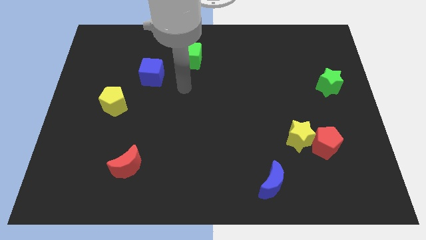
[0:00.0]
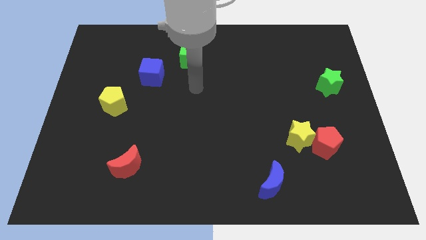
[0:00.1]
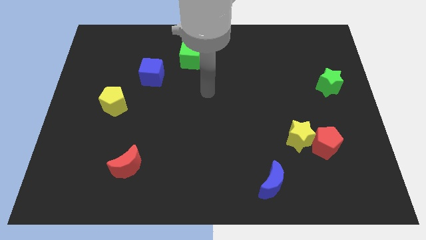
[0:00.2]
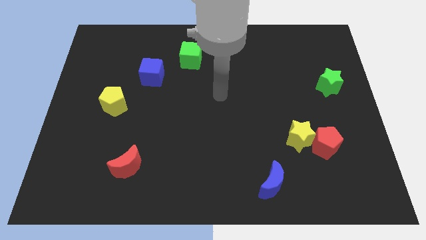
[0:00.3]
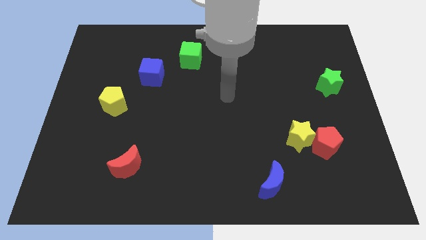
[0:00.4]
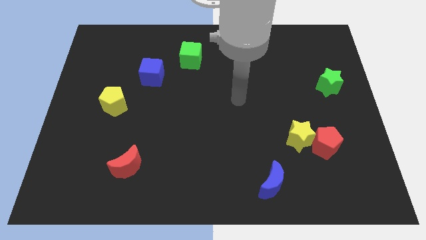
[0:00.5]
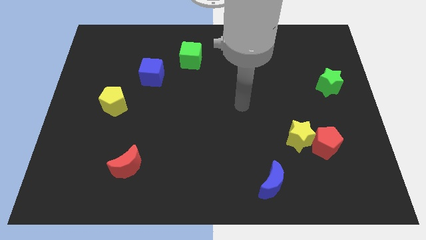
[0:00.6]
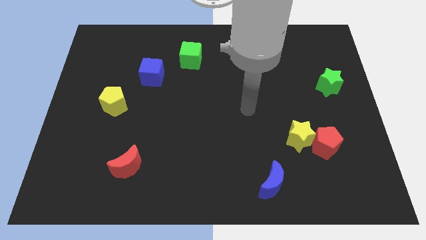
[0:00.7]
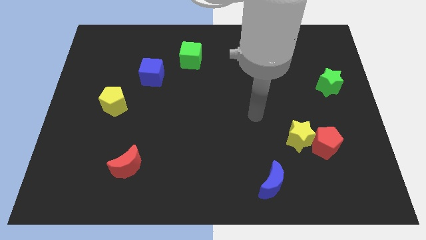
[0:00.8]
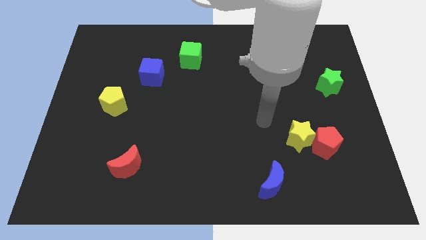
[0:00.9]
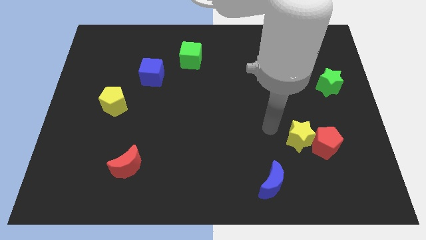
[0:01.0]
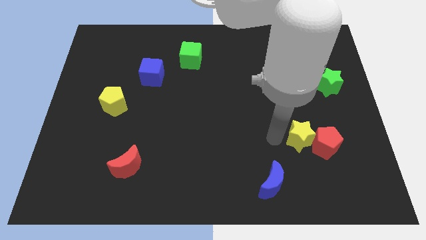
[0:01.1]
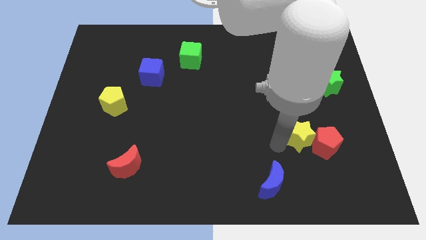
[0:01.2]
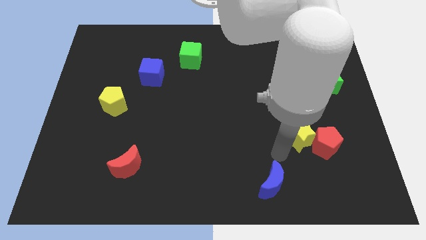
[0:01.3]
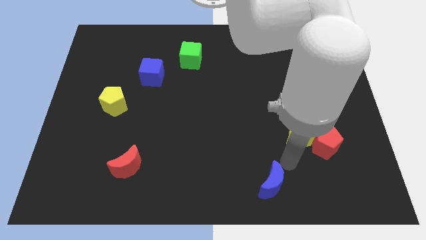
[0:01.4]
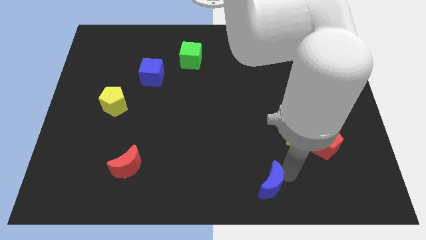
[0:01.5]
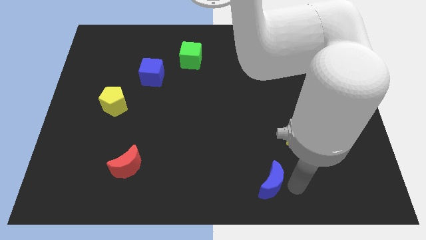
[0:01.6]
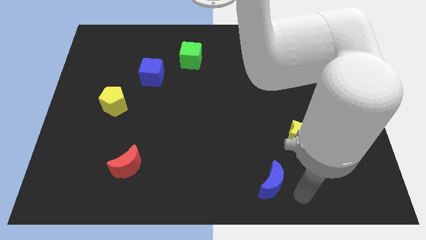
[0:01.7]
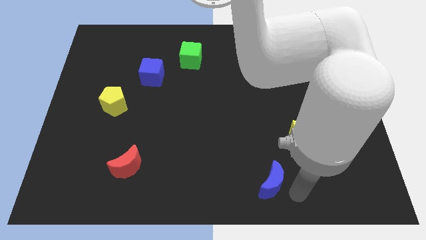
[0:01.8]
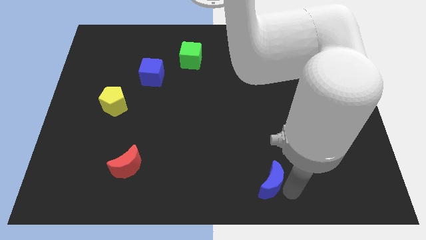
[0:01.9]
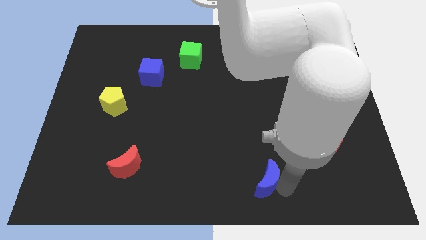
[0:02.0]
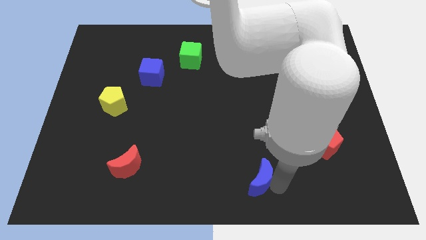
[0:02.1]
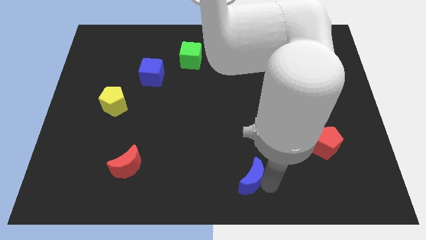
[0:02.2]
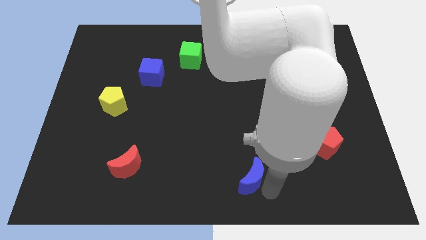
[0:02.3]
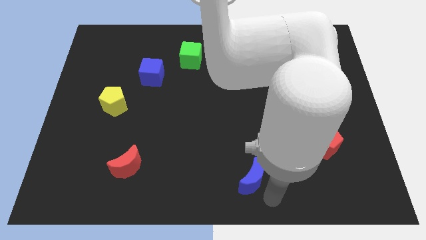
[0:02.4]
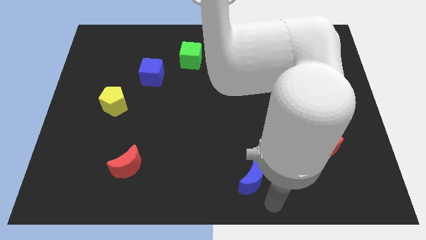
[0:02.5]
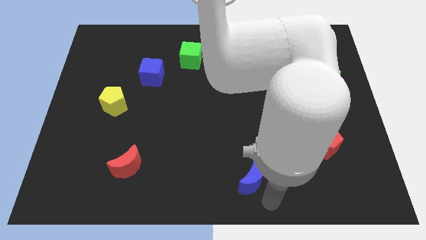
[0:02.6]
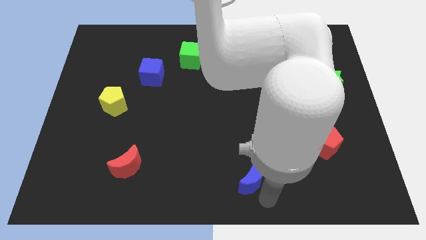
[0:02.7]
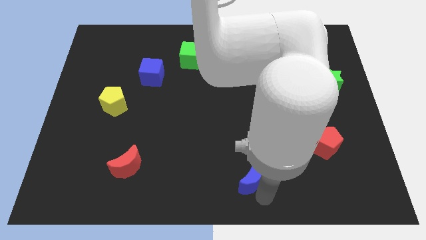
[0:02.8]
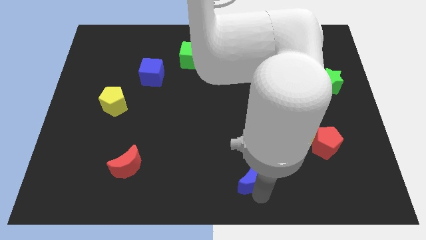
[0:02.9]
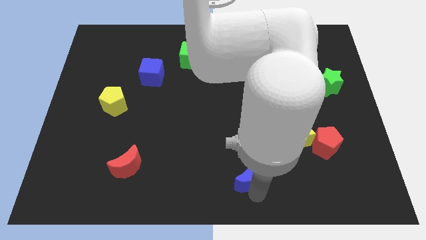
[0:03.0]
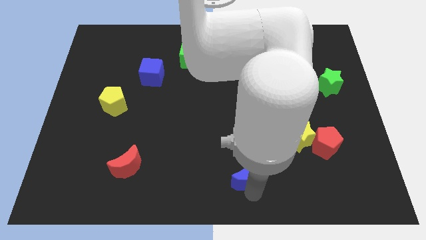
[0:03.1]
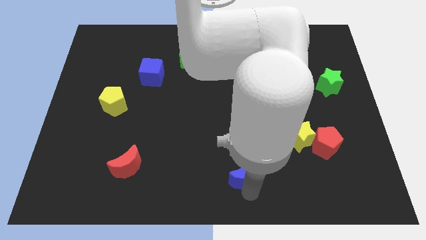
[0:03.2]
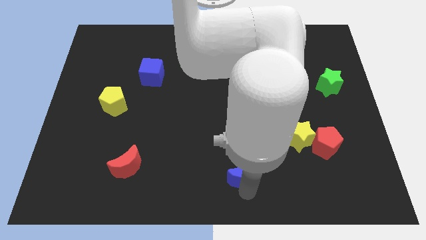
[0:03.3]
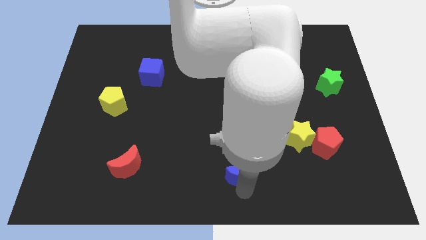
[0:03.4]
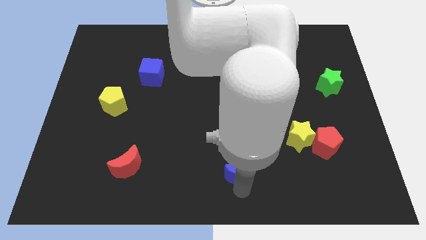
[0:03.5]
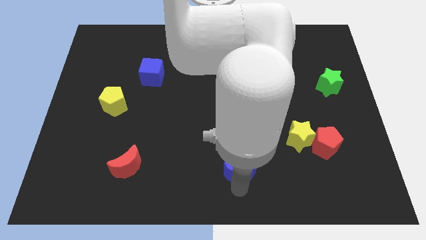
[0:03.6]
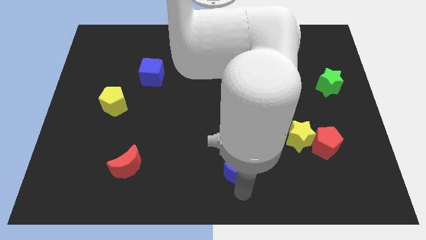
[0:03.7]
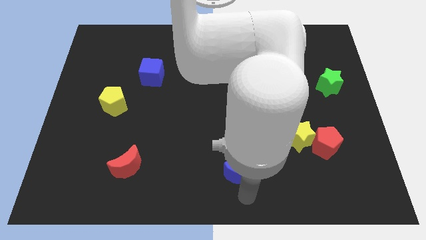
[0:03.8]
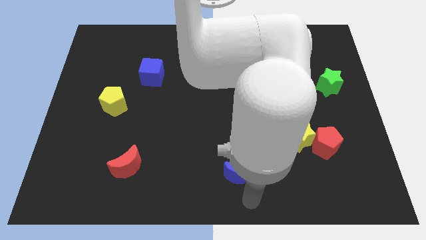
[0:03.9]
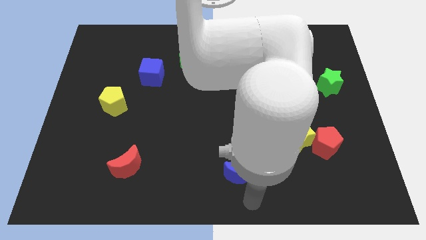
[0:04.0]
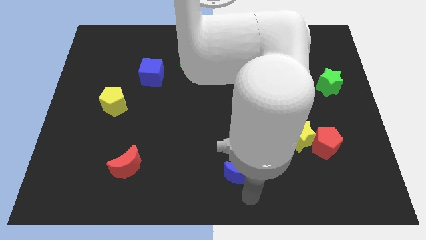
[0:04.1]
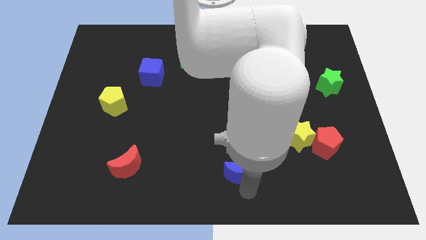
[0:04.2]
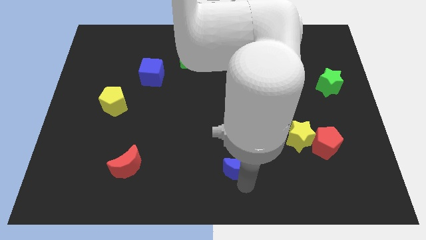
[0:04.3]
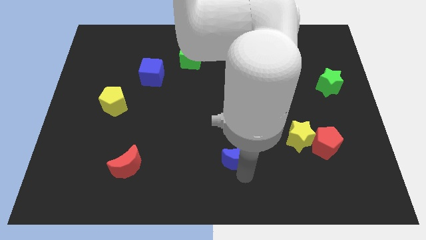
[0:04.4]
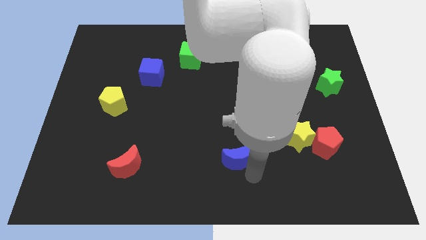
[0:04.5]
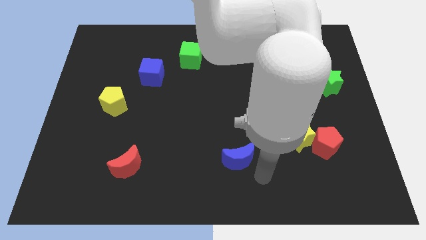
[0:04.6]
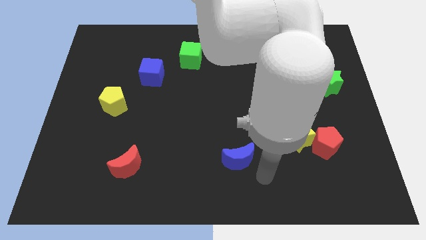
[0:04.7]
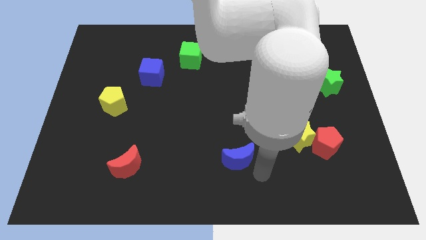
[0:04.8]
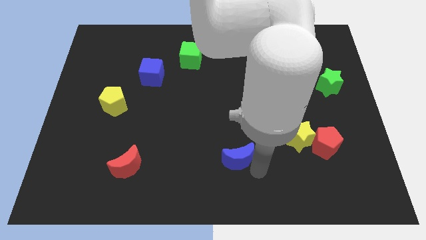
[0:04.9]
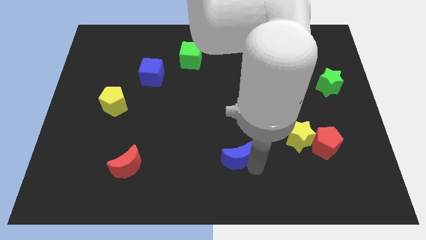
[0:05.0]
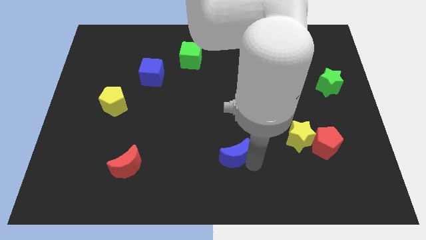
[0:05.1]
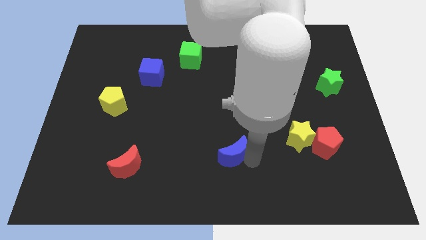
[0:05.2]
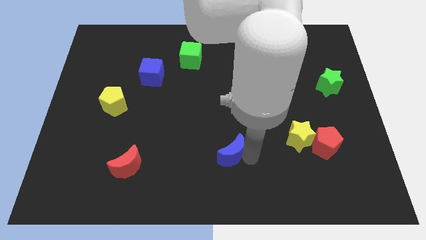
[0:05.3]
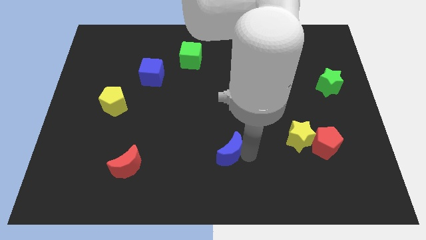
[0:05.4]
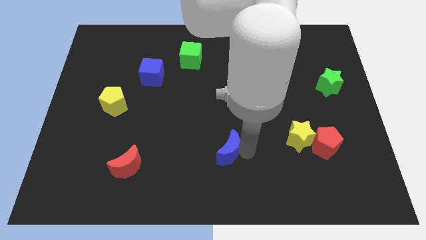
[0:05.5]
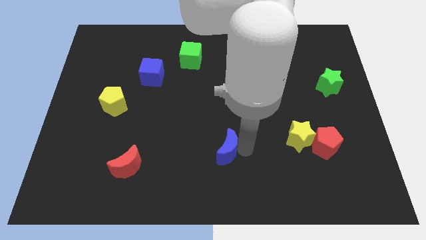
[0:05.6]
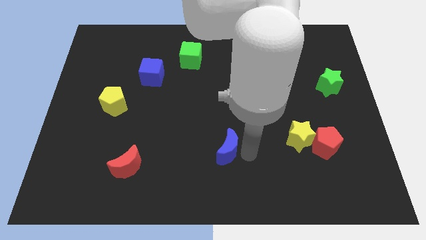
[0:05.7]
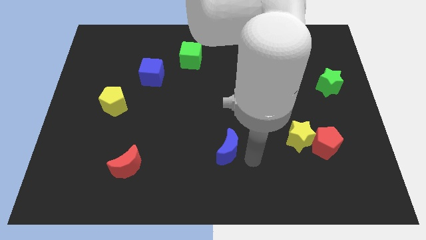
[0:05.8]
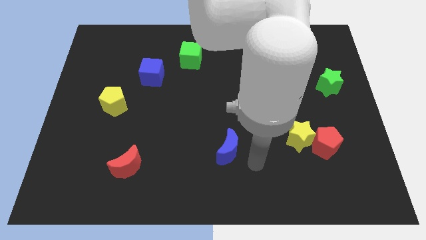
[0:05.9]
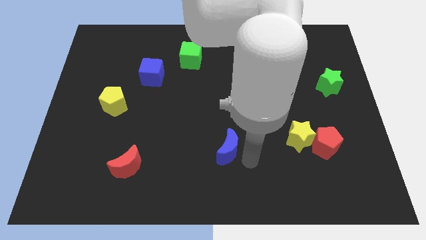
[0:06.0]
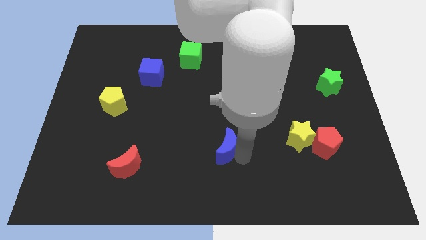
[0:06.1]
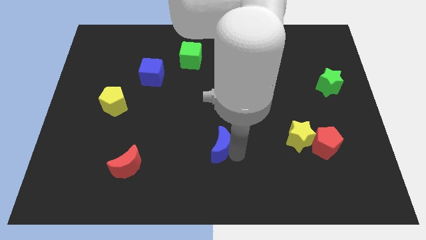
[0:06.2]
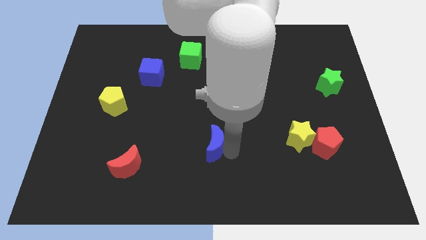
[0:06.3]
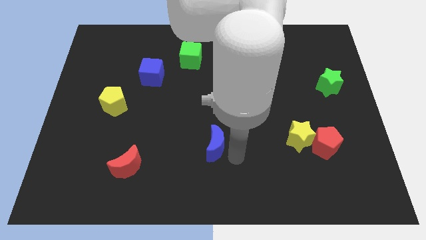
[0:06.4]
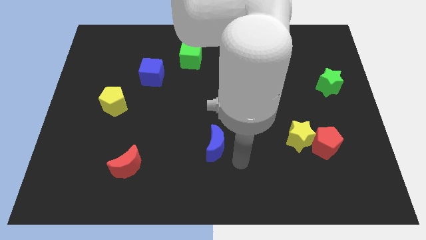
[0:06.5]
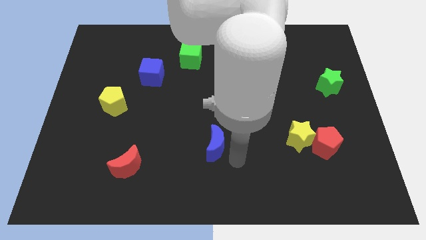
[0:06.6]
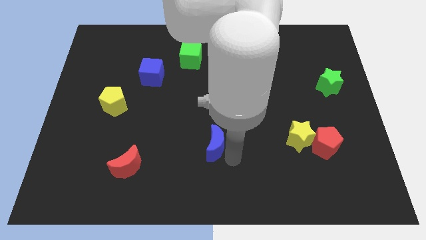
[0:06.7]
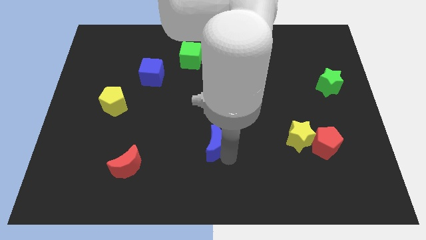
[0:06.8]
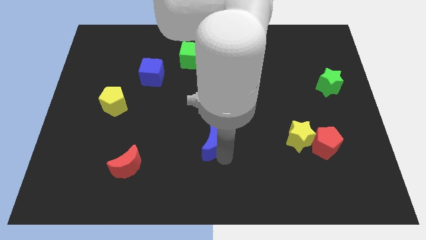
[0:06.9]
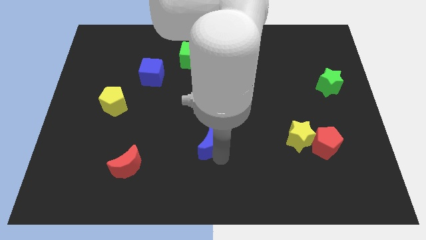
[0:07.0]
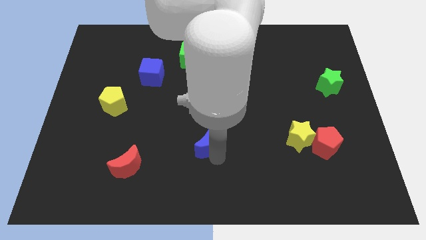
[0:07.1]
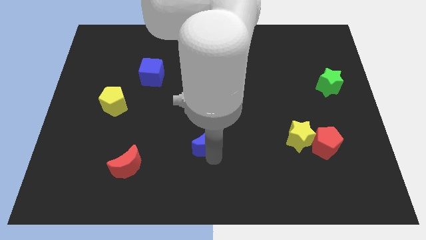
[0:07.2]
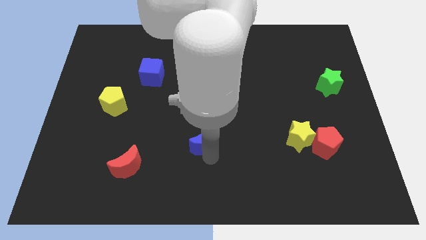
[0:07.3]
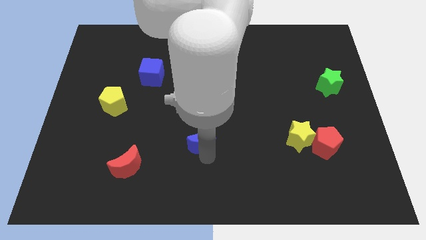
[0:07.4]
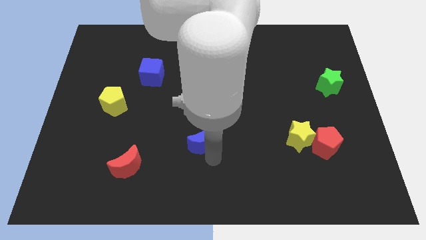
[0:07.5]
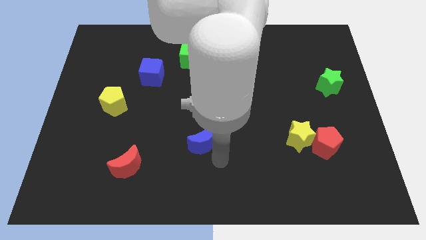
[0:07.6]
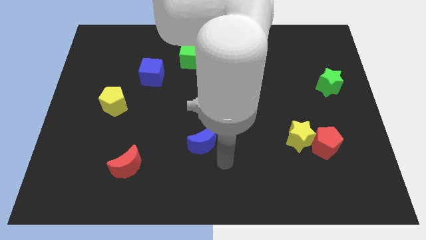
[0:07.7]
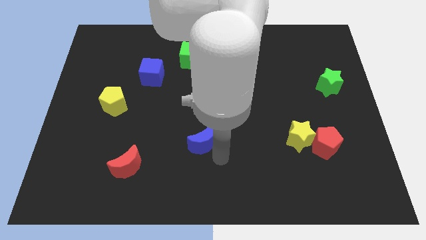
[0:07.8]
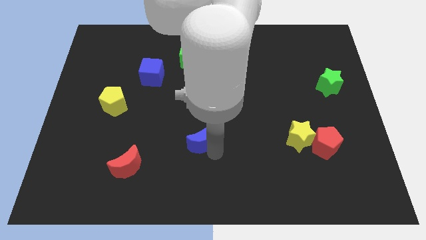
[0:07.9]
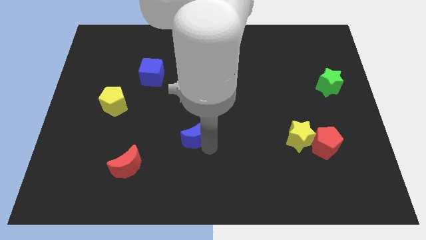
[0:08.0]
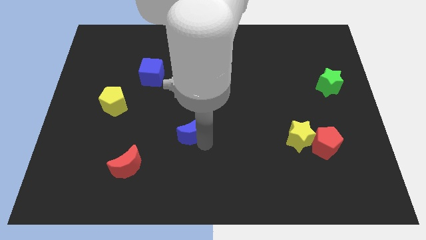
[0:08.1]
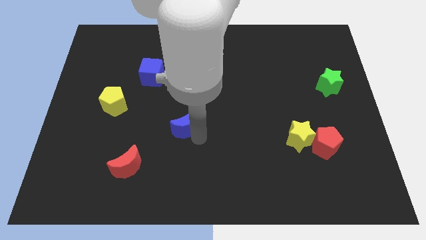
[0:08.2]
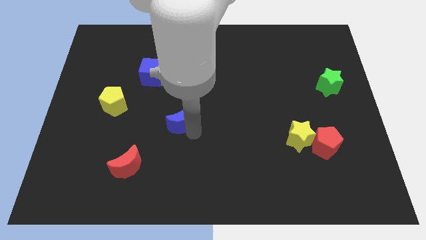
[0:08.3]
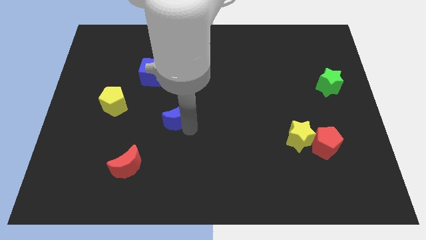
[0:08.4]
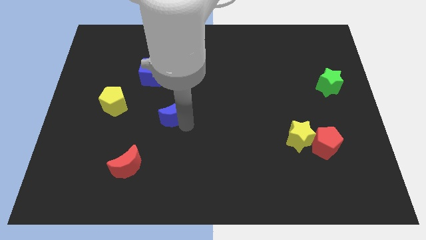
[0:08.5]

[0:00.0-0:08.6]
move the blue moon right of the yellow pentagon
